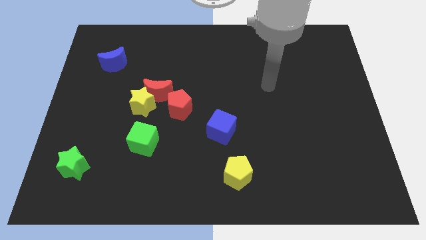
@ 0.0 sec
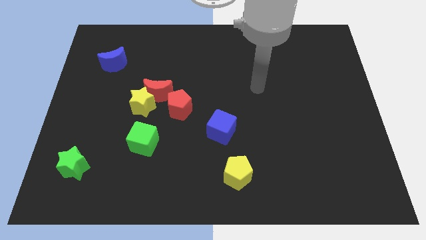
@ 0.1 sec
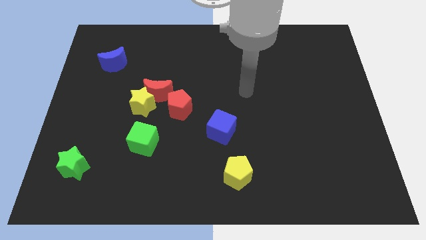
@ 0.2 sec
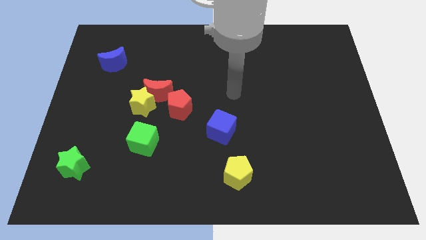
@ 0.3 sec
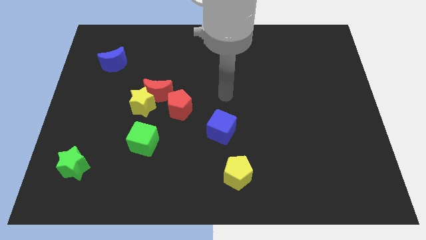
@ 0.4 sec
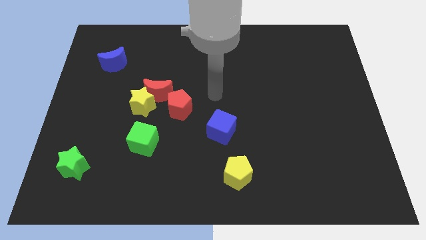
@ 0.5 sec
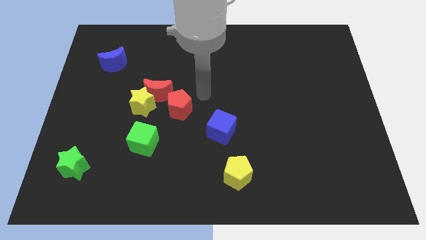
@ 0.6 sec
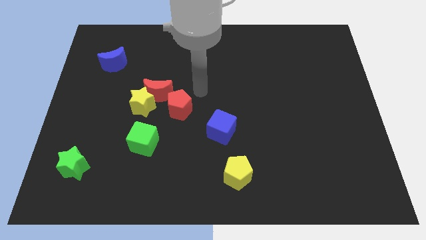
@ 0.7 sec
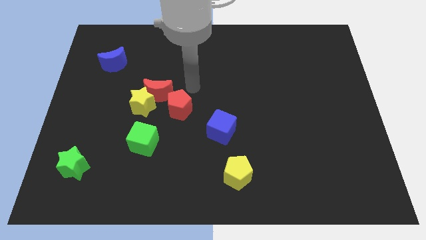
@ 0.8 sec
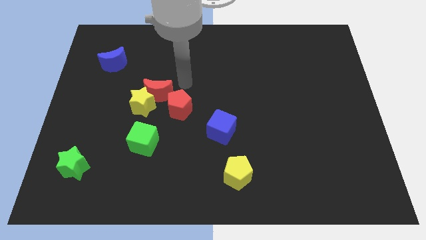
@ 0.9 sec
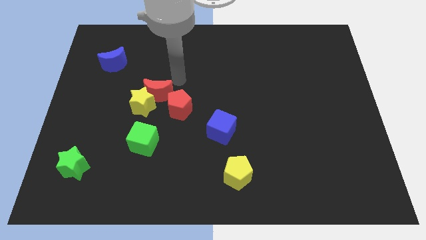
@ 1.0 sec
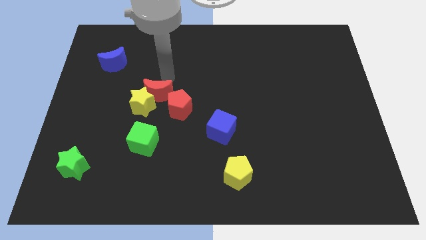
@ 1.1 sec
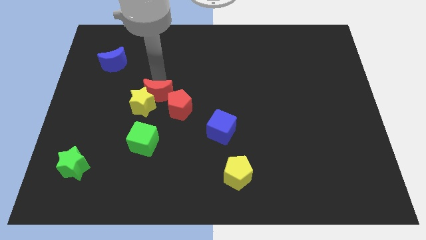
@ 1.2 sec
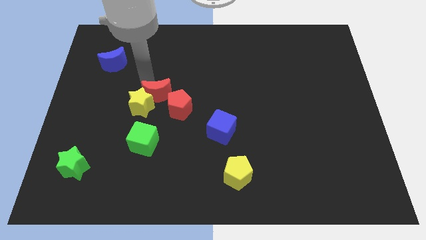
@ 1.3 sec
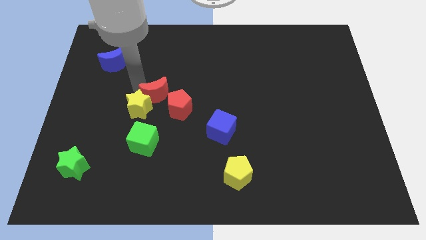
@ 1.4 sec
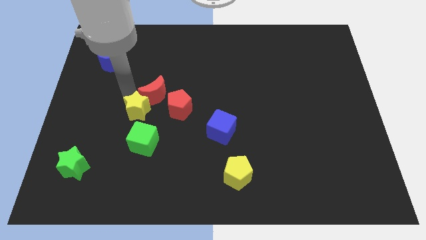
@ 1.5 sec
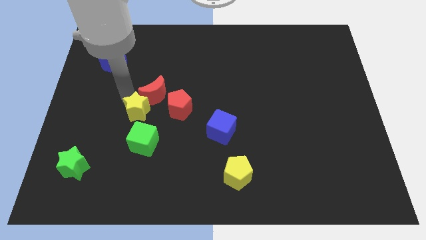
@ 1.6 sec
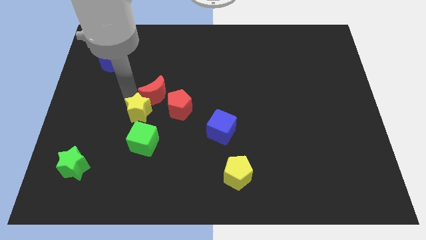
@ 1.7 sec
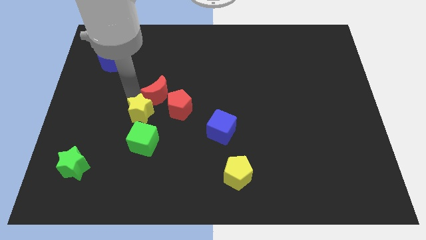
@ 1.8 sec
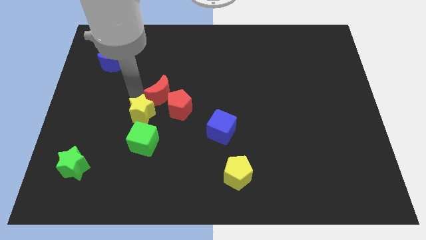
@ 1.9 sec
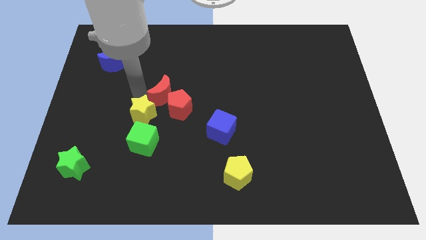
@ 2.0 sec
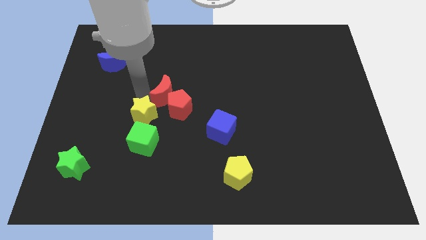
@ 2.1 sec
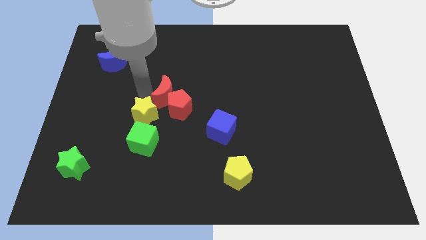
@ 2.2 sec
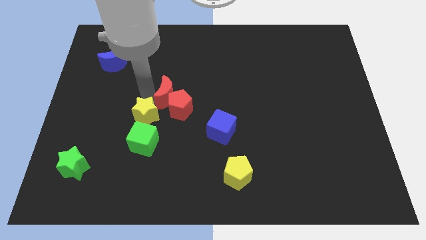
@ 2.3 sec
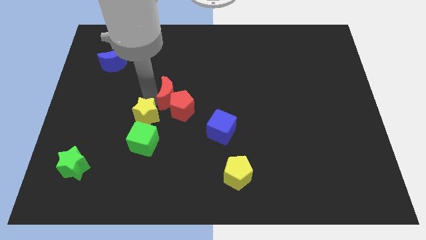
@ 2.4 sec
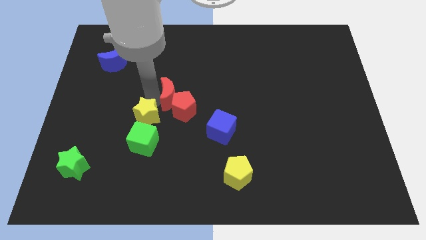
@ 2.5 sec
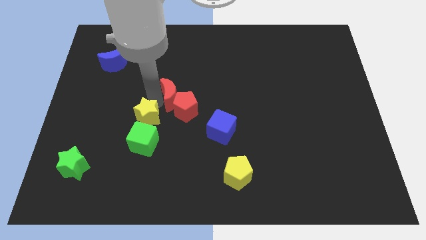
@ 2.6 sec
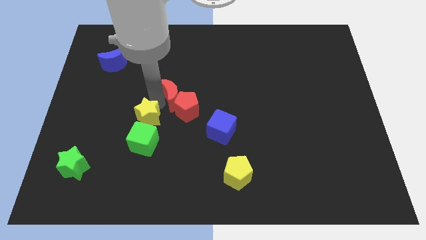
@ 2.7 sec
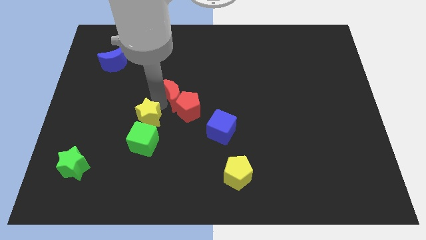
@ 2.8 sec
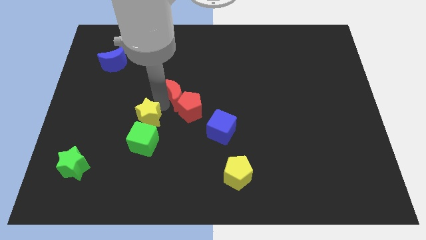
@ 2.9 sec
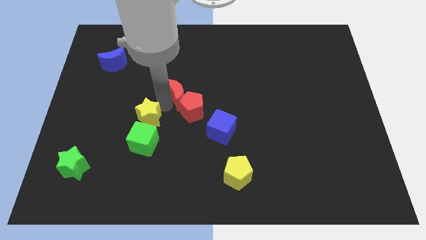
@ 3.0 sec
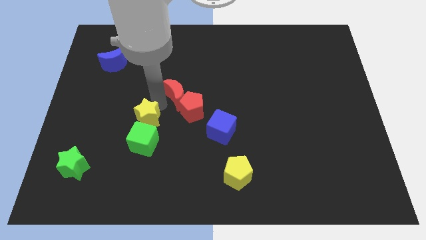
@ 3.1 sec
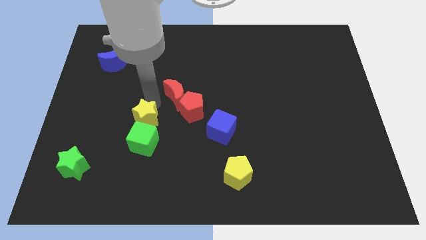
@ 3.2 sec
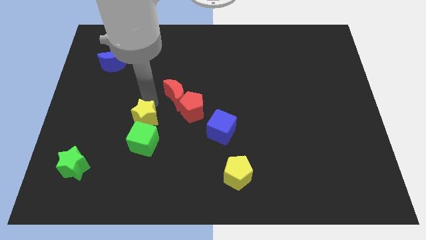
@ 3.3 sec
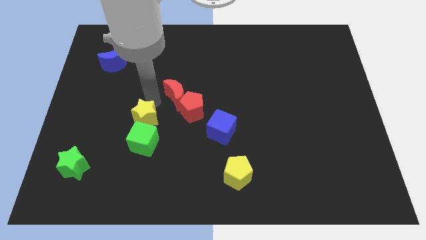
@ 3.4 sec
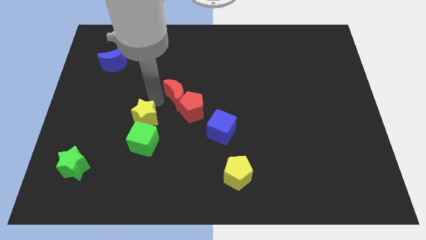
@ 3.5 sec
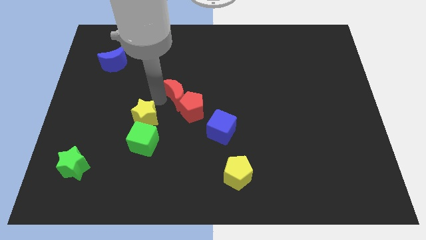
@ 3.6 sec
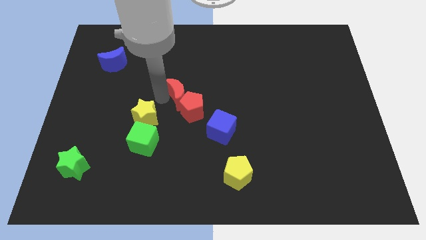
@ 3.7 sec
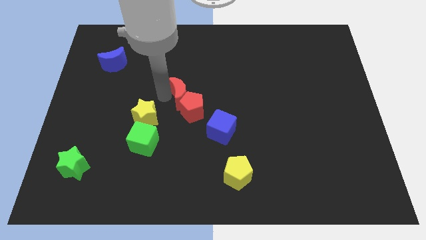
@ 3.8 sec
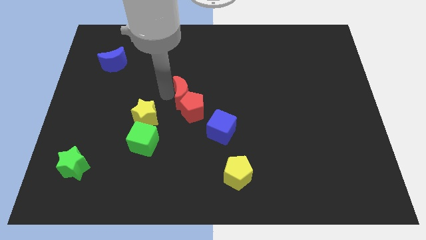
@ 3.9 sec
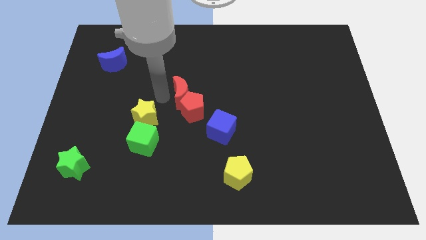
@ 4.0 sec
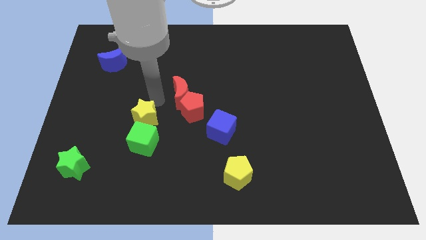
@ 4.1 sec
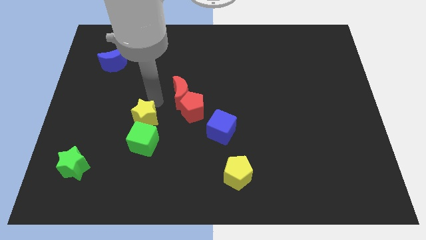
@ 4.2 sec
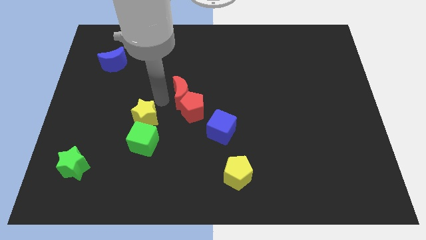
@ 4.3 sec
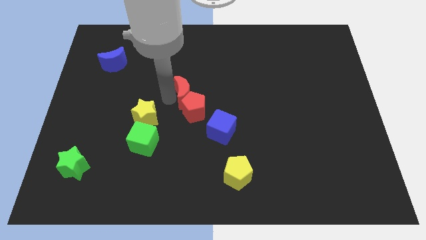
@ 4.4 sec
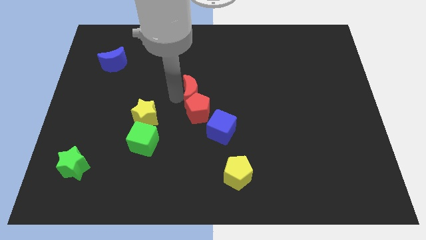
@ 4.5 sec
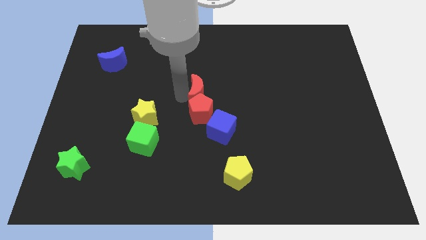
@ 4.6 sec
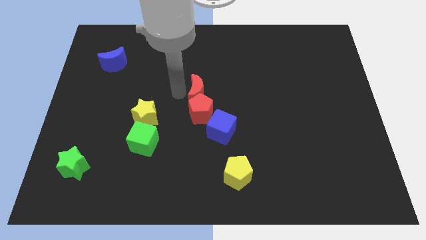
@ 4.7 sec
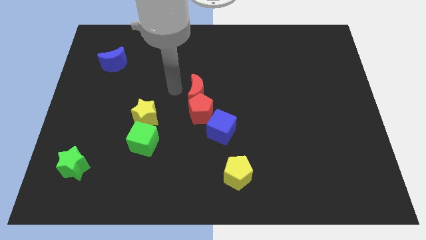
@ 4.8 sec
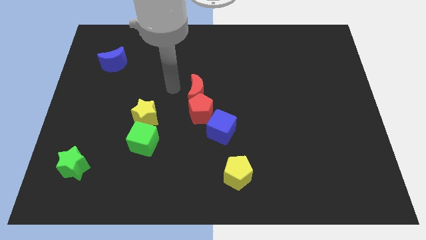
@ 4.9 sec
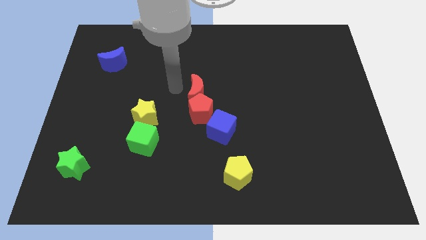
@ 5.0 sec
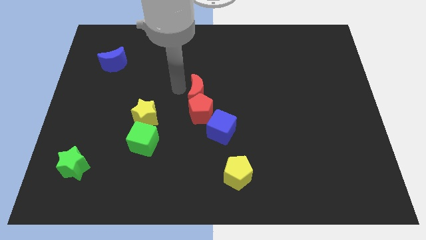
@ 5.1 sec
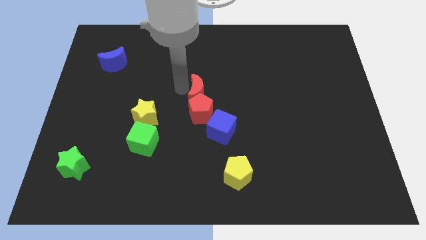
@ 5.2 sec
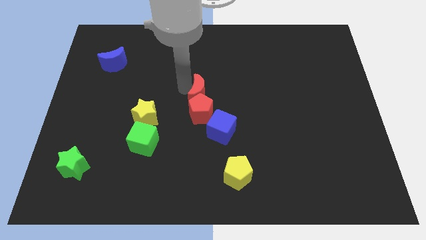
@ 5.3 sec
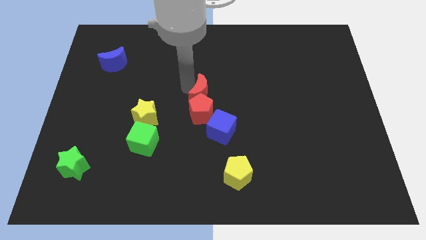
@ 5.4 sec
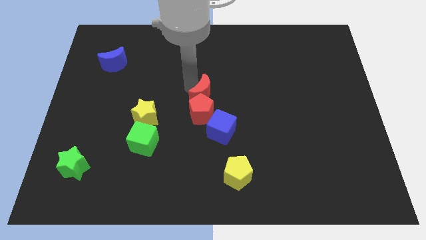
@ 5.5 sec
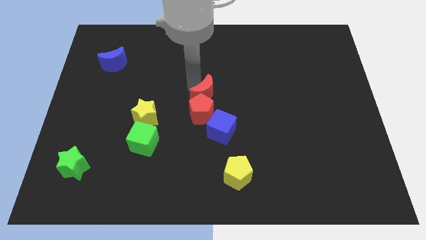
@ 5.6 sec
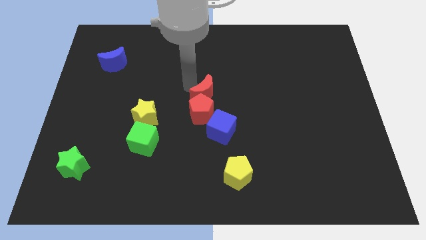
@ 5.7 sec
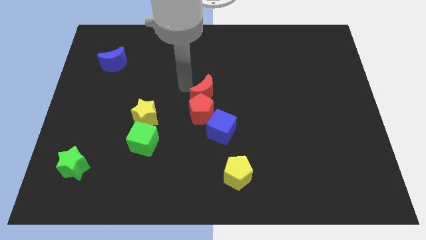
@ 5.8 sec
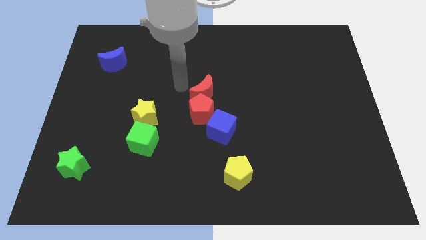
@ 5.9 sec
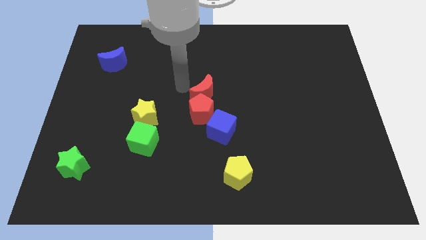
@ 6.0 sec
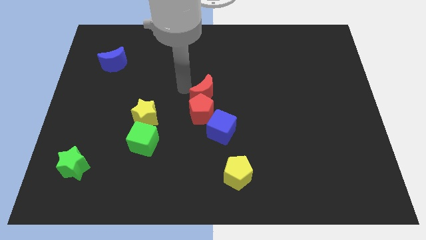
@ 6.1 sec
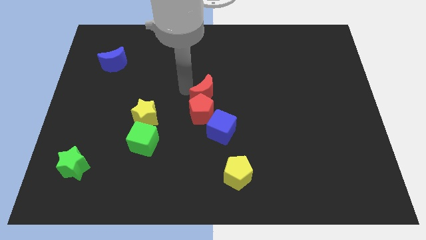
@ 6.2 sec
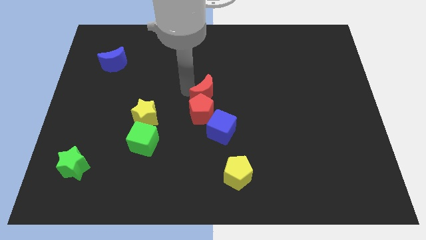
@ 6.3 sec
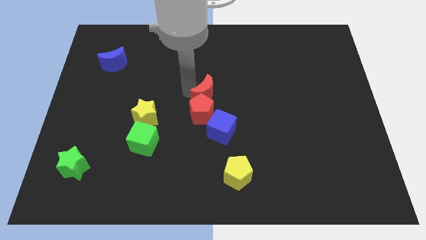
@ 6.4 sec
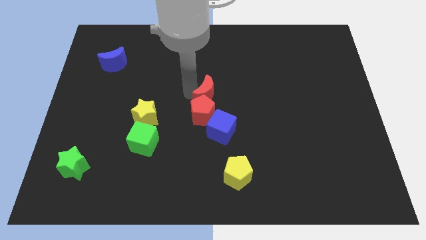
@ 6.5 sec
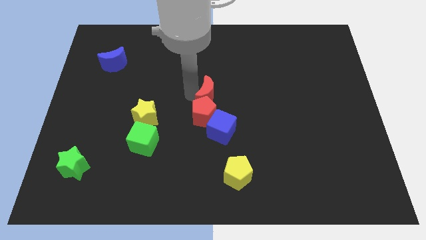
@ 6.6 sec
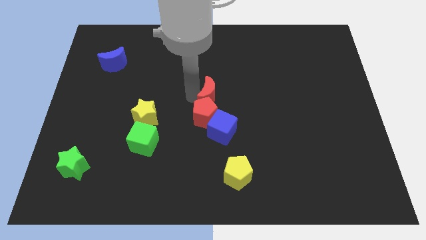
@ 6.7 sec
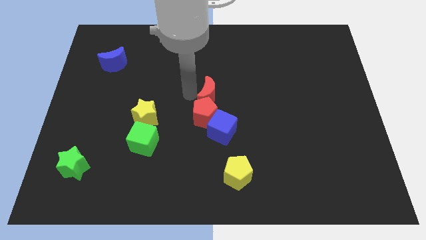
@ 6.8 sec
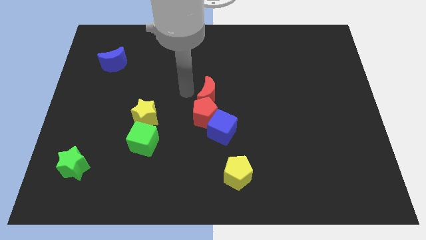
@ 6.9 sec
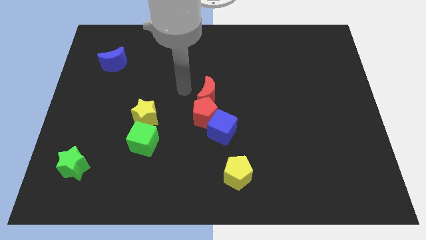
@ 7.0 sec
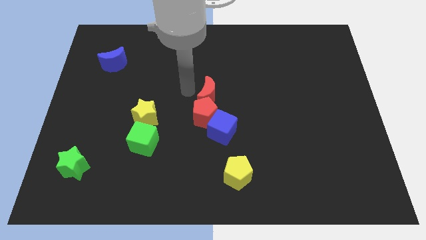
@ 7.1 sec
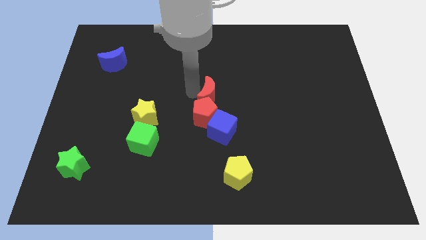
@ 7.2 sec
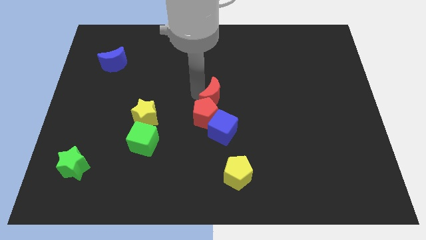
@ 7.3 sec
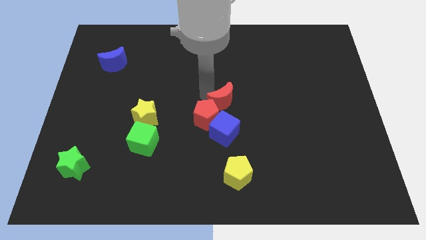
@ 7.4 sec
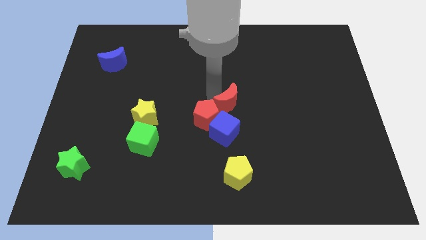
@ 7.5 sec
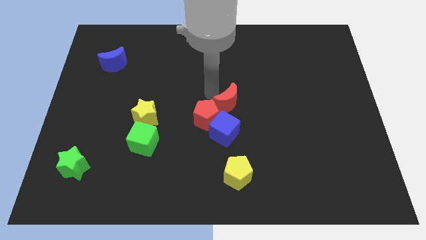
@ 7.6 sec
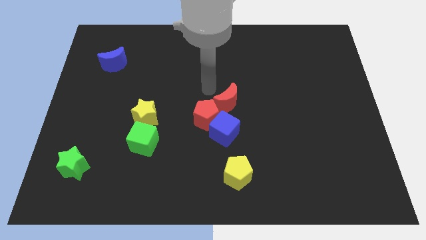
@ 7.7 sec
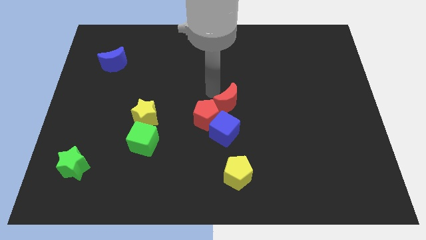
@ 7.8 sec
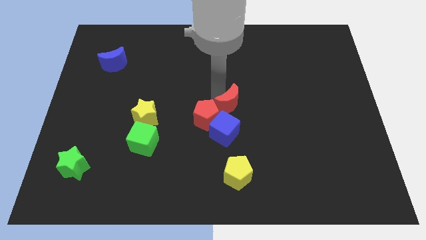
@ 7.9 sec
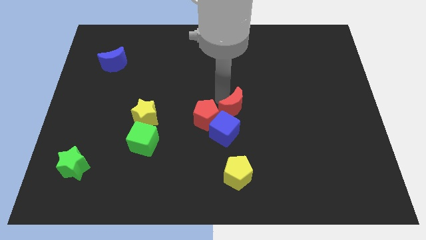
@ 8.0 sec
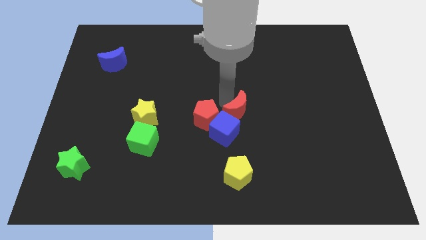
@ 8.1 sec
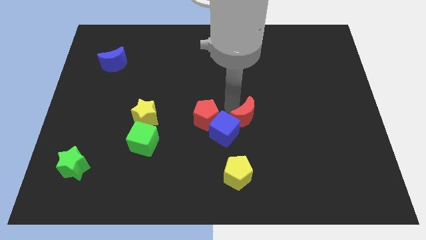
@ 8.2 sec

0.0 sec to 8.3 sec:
slide the red moon to the right of the blue cube

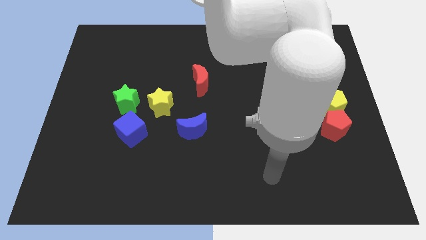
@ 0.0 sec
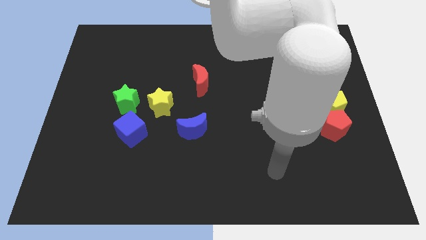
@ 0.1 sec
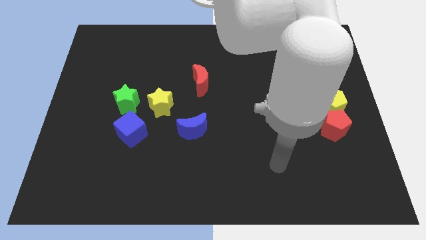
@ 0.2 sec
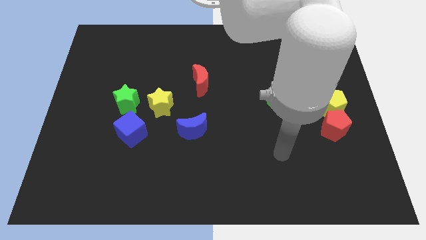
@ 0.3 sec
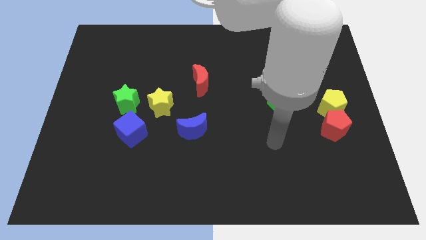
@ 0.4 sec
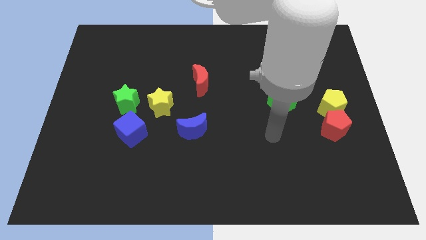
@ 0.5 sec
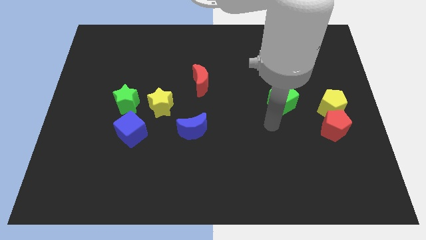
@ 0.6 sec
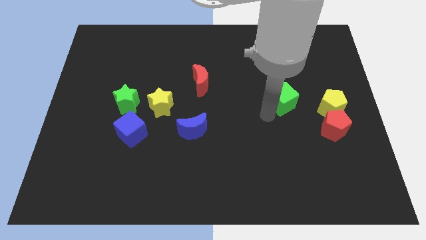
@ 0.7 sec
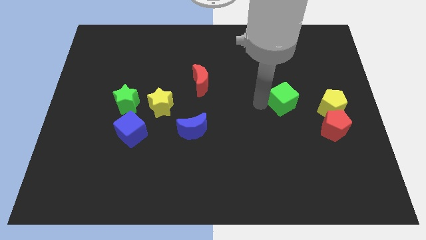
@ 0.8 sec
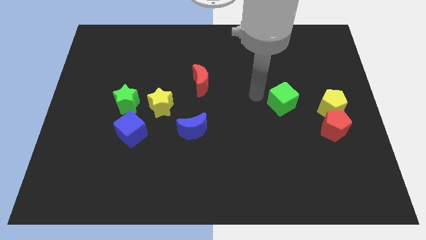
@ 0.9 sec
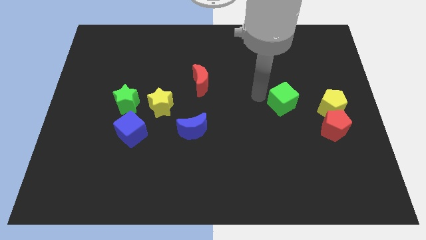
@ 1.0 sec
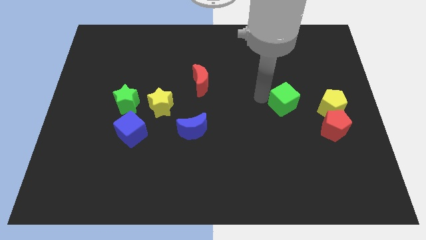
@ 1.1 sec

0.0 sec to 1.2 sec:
put the green cube diagonally up and to the left of the red pentagon
